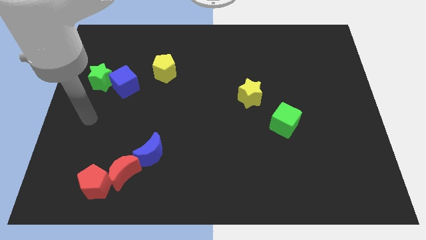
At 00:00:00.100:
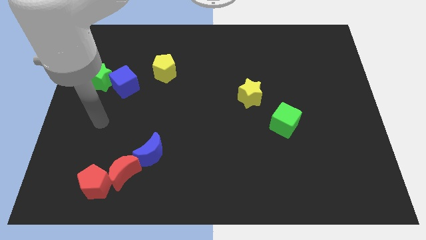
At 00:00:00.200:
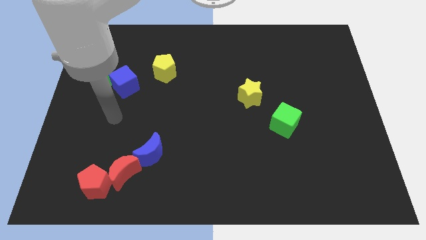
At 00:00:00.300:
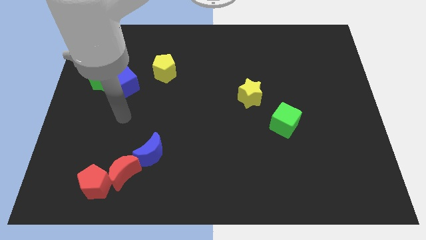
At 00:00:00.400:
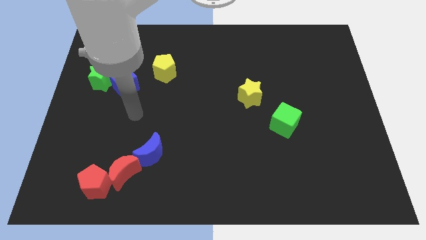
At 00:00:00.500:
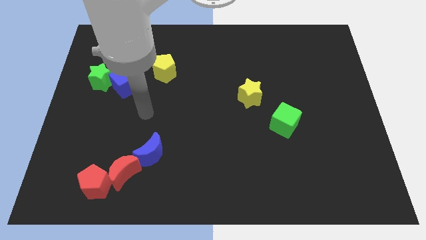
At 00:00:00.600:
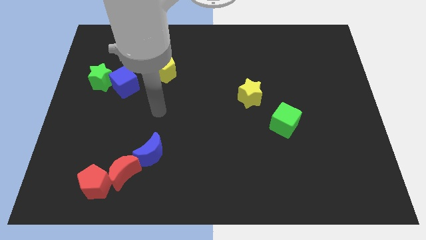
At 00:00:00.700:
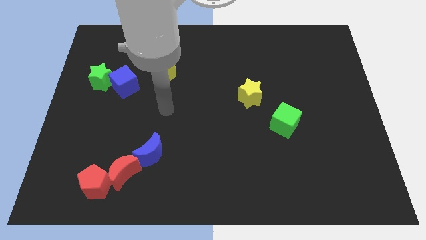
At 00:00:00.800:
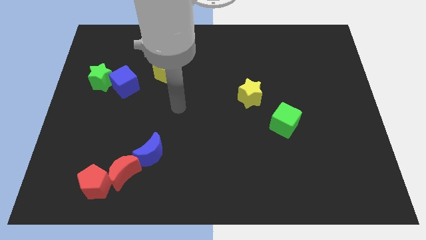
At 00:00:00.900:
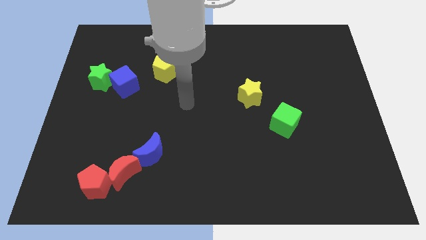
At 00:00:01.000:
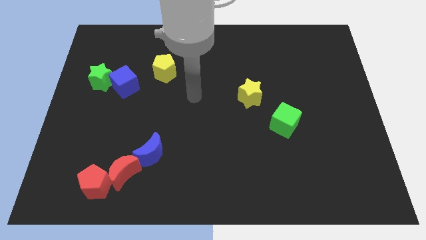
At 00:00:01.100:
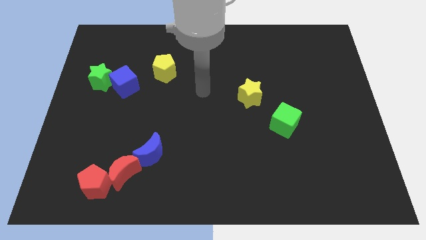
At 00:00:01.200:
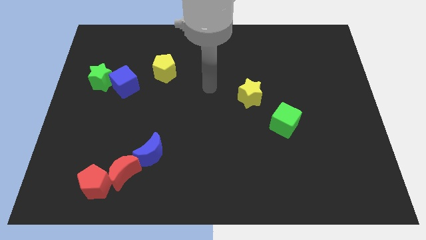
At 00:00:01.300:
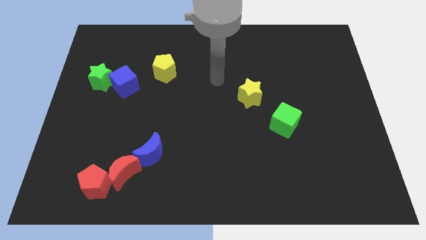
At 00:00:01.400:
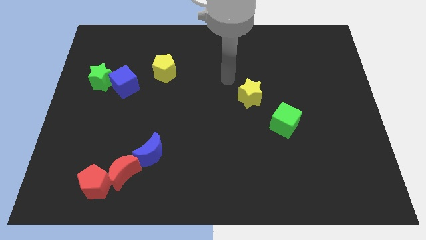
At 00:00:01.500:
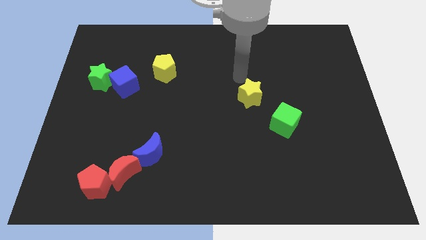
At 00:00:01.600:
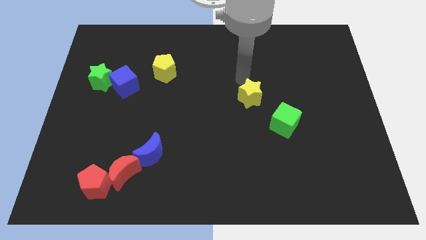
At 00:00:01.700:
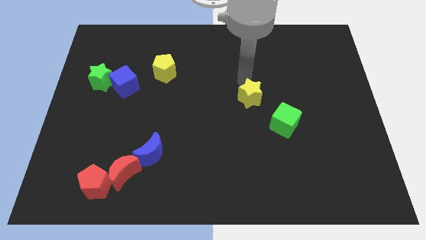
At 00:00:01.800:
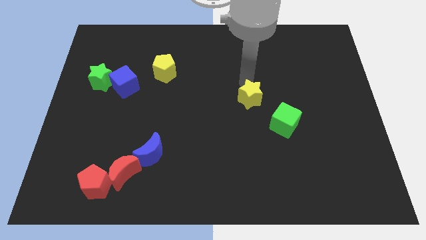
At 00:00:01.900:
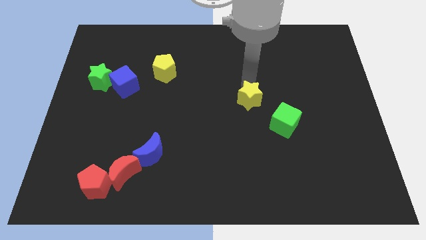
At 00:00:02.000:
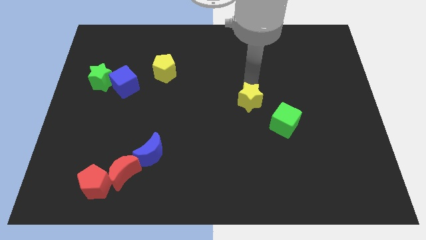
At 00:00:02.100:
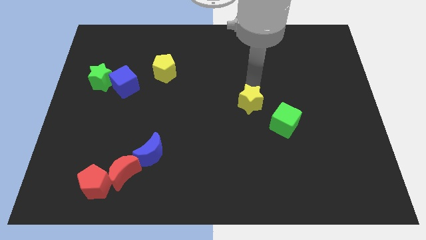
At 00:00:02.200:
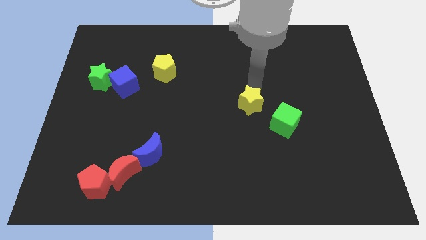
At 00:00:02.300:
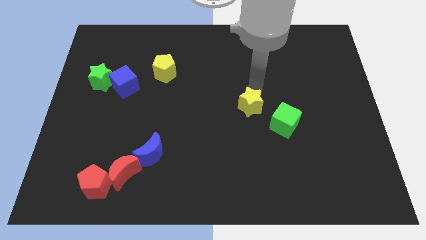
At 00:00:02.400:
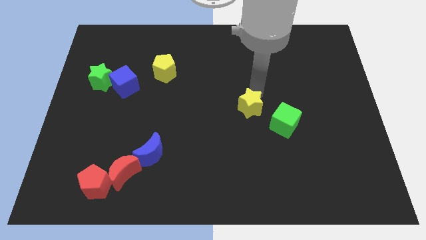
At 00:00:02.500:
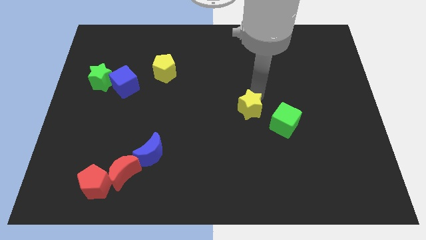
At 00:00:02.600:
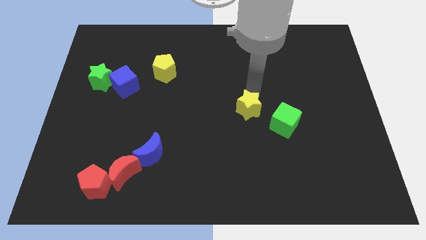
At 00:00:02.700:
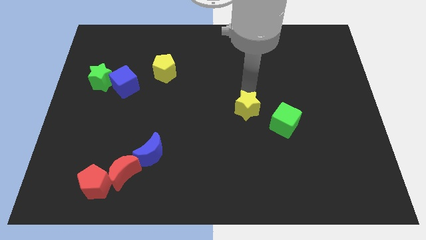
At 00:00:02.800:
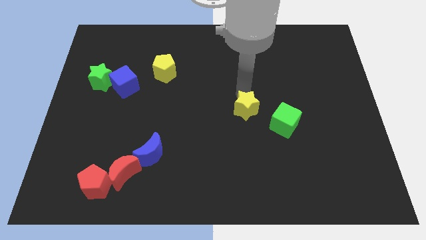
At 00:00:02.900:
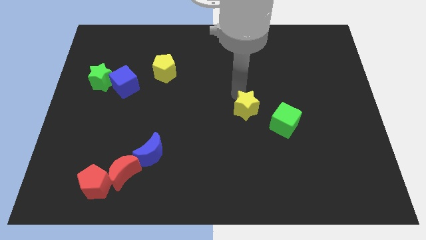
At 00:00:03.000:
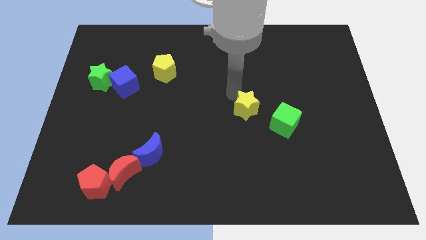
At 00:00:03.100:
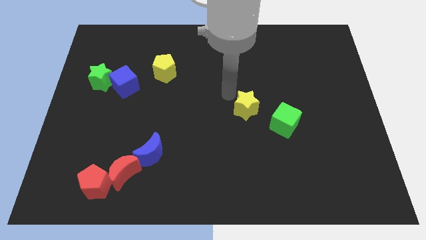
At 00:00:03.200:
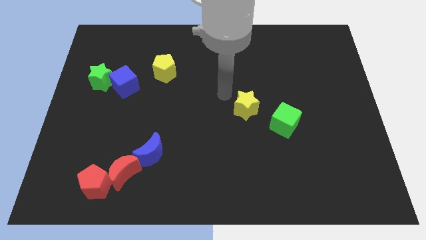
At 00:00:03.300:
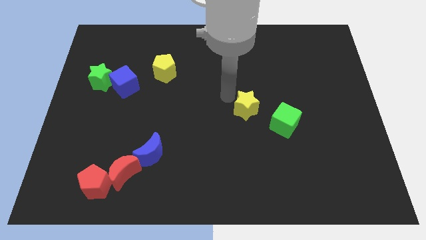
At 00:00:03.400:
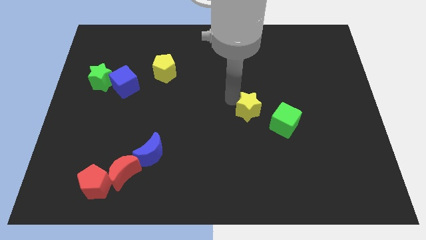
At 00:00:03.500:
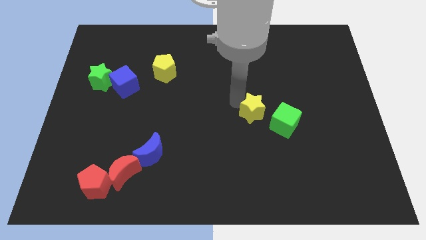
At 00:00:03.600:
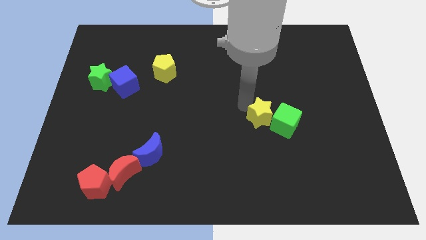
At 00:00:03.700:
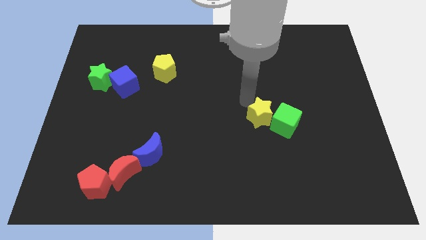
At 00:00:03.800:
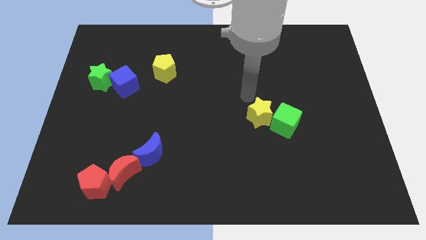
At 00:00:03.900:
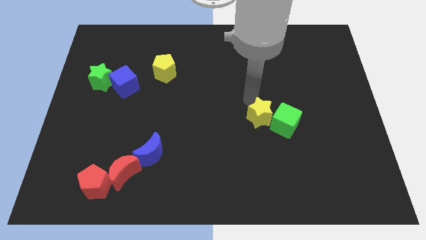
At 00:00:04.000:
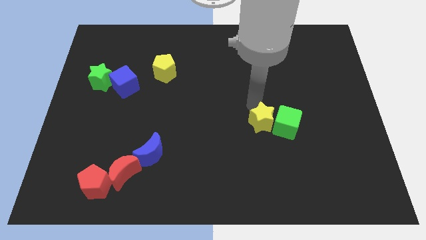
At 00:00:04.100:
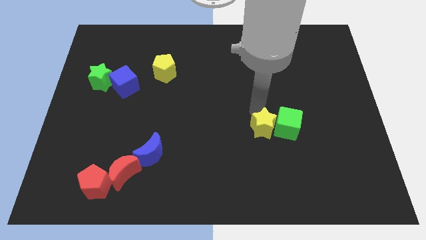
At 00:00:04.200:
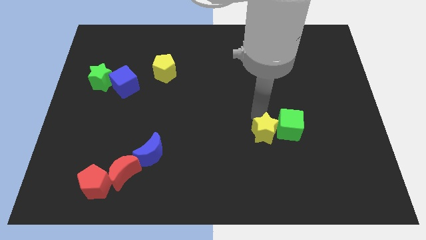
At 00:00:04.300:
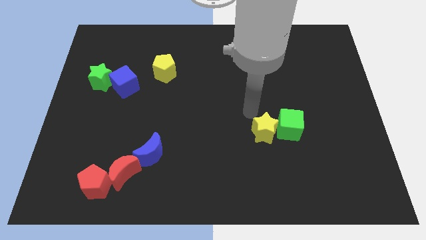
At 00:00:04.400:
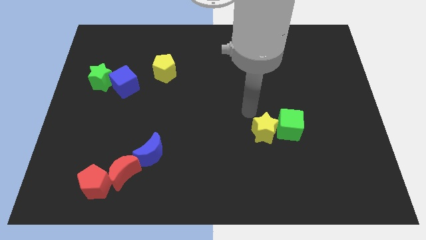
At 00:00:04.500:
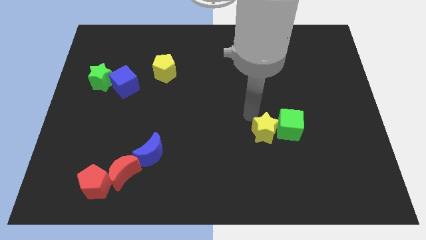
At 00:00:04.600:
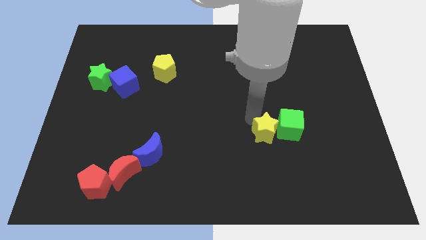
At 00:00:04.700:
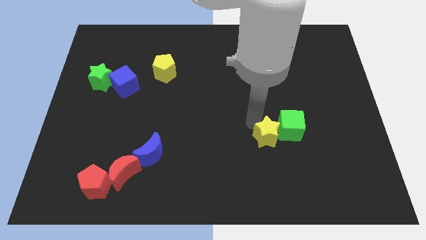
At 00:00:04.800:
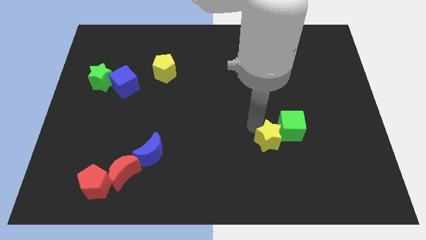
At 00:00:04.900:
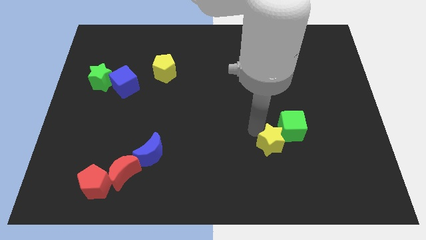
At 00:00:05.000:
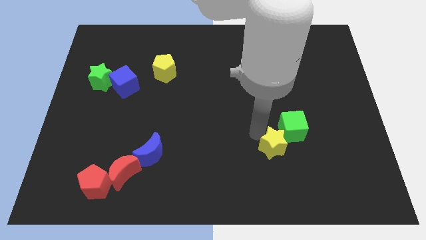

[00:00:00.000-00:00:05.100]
slide the yellow star to the bottom of the green cube
